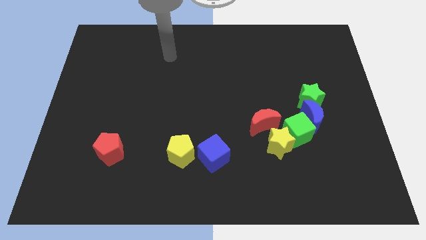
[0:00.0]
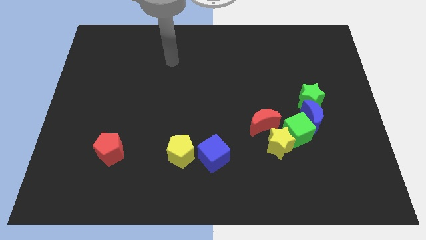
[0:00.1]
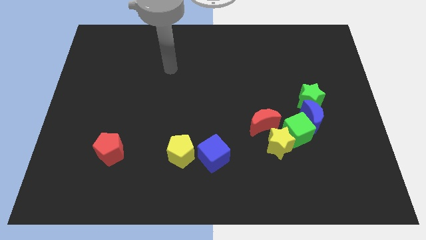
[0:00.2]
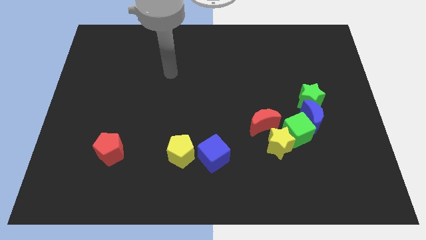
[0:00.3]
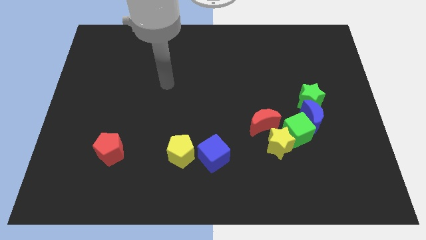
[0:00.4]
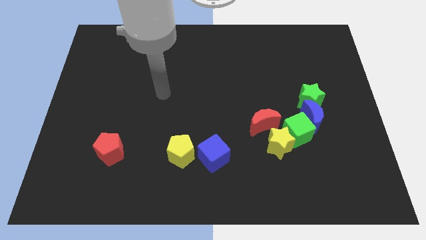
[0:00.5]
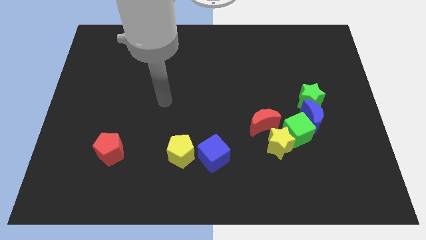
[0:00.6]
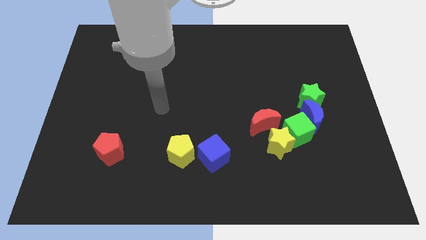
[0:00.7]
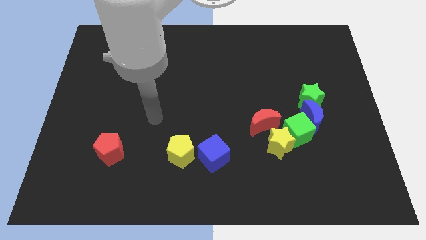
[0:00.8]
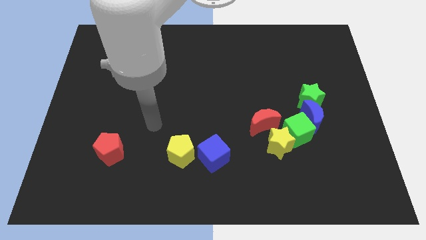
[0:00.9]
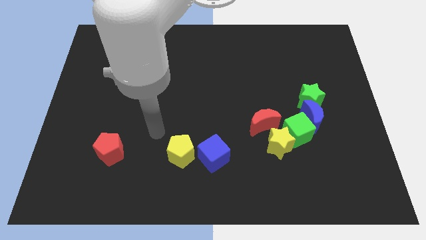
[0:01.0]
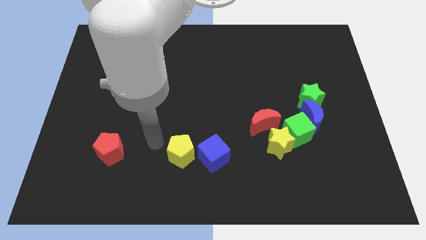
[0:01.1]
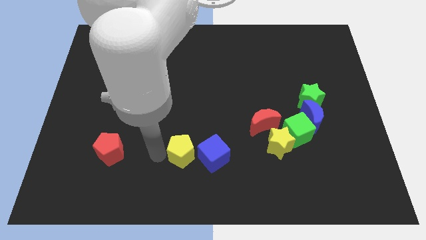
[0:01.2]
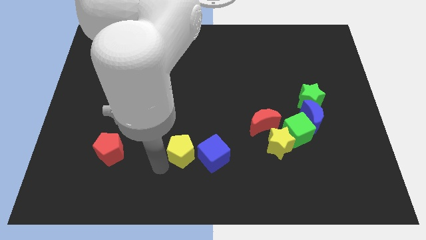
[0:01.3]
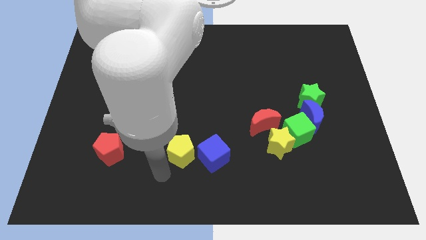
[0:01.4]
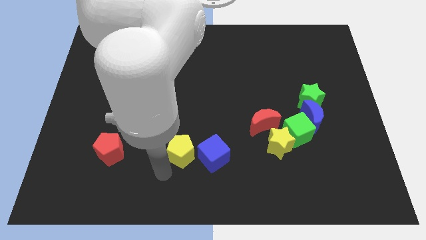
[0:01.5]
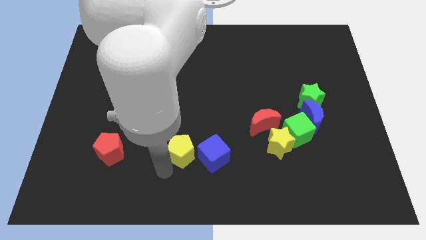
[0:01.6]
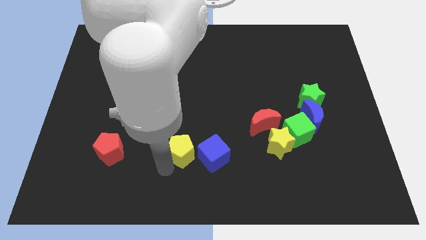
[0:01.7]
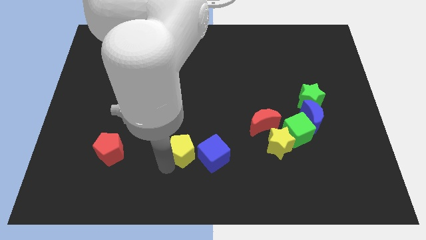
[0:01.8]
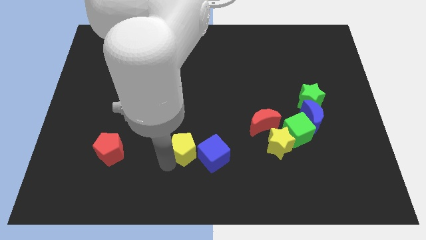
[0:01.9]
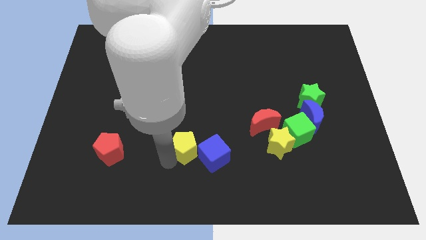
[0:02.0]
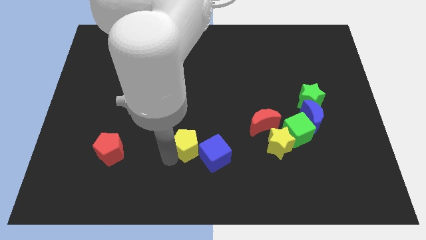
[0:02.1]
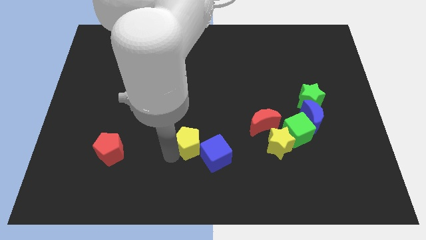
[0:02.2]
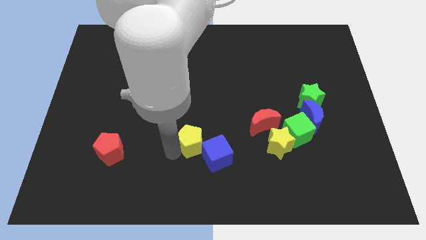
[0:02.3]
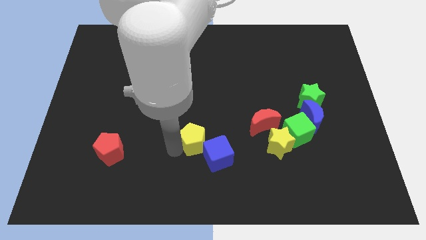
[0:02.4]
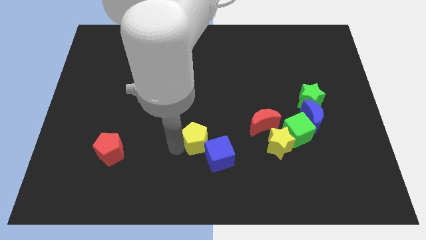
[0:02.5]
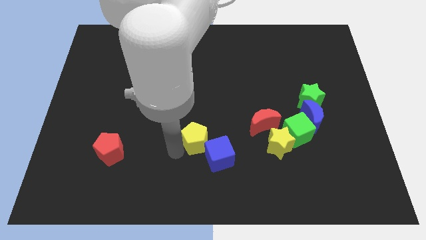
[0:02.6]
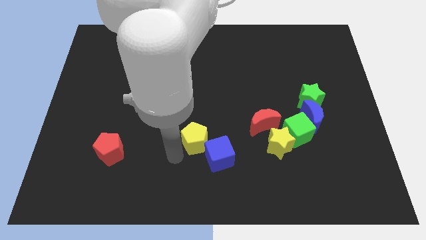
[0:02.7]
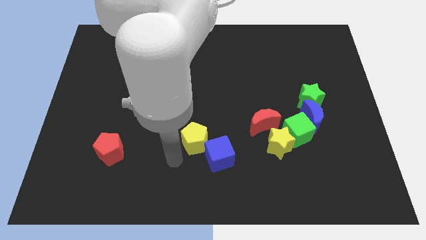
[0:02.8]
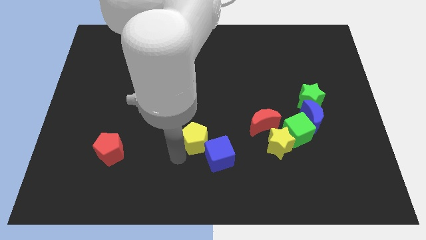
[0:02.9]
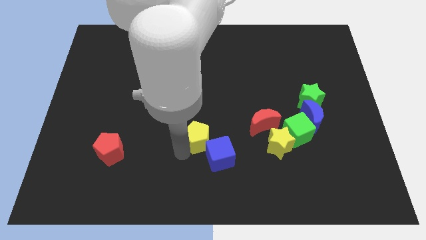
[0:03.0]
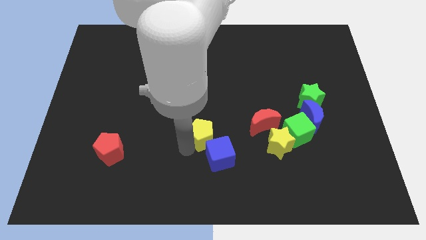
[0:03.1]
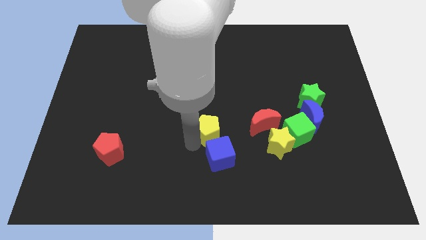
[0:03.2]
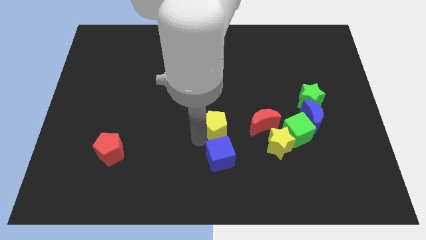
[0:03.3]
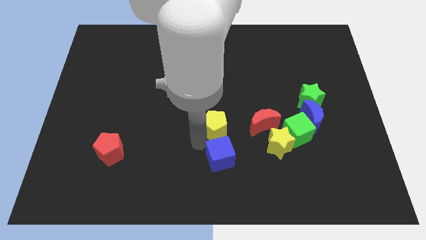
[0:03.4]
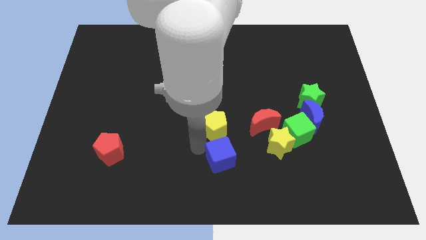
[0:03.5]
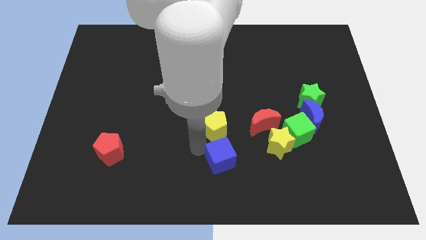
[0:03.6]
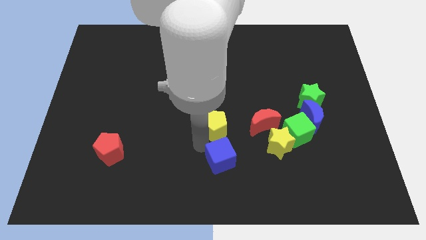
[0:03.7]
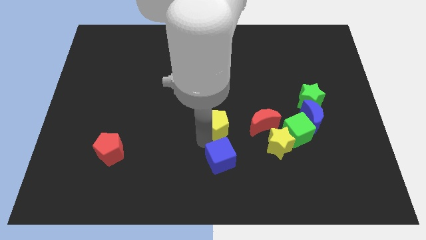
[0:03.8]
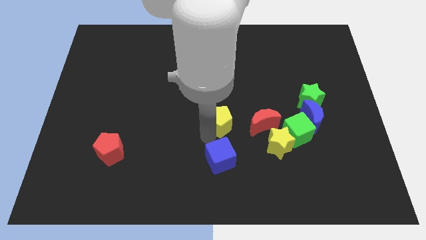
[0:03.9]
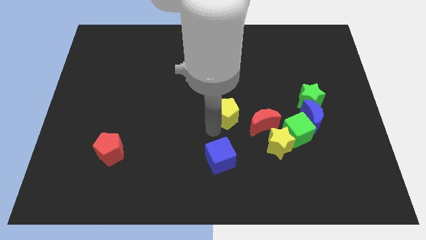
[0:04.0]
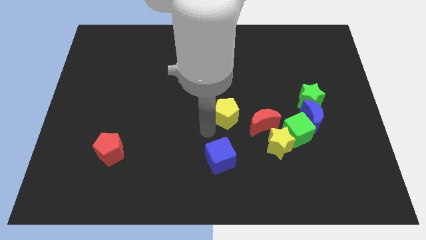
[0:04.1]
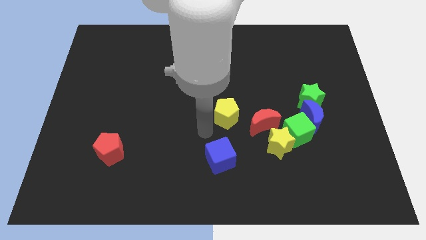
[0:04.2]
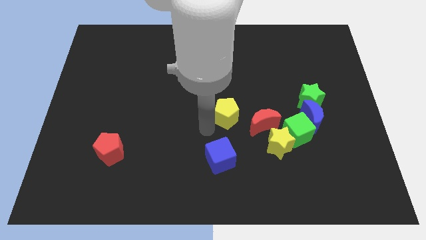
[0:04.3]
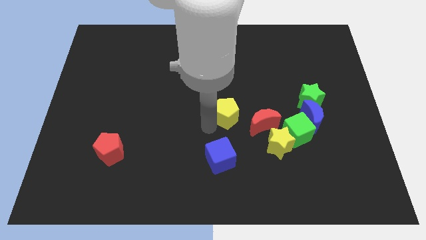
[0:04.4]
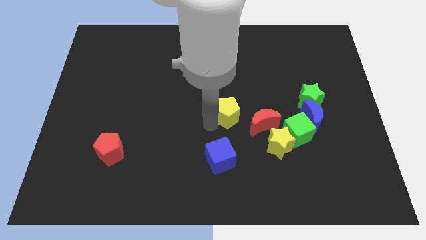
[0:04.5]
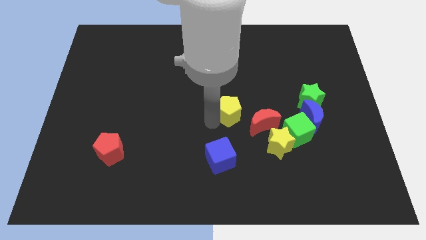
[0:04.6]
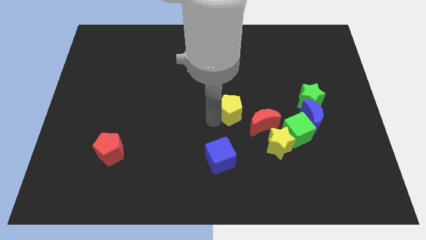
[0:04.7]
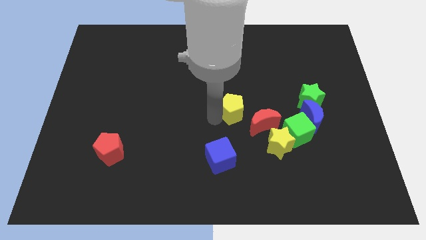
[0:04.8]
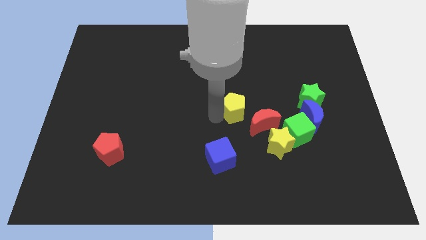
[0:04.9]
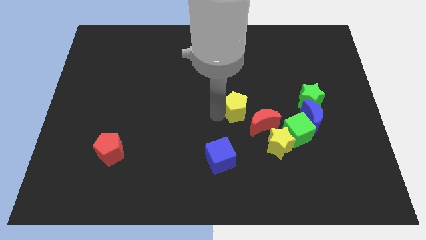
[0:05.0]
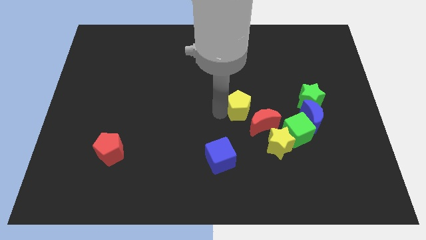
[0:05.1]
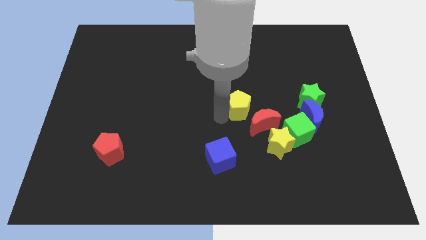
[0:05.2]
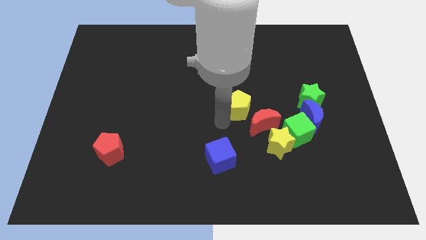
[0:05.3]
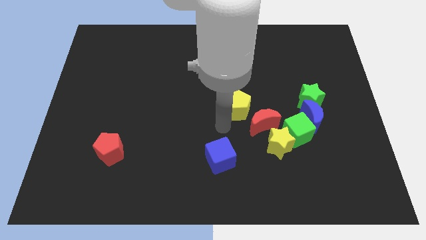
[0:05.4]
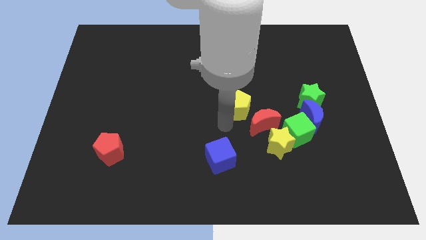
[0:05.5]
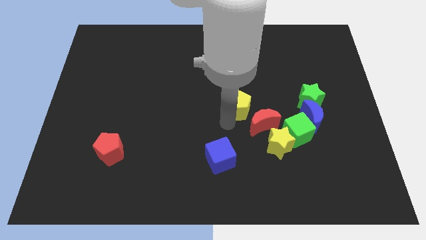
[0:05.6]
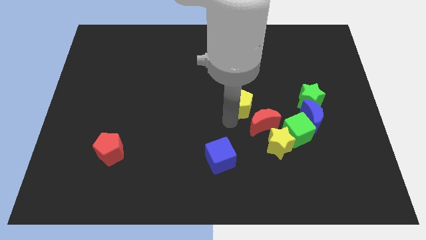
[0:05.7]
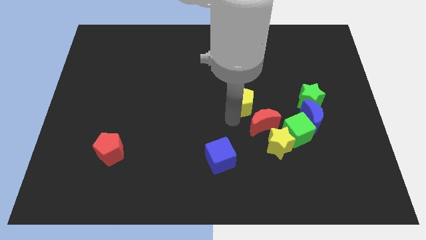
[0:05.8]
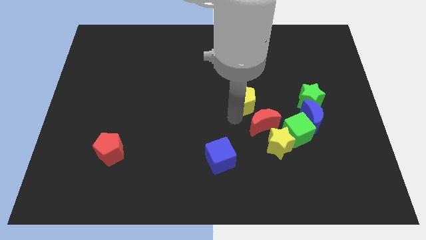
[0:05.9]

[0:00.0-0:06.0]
move the yellow pentagon diagonally upwards and right

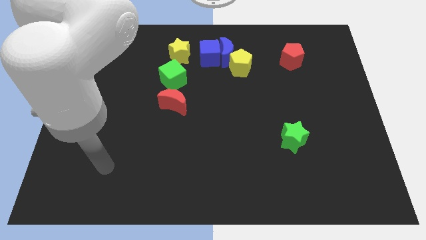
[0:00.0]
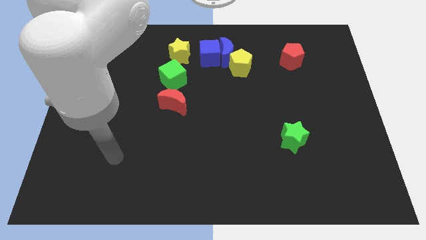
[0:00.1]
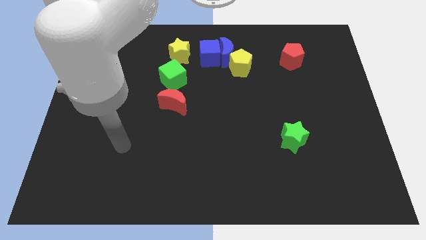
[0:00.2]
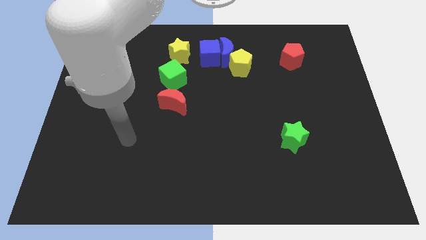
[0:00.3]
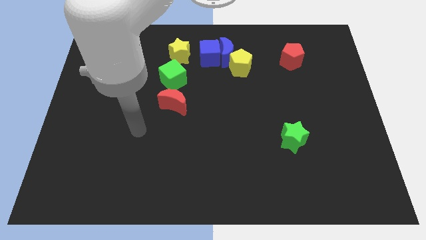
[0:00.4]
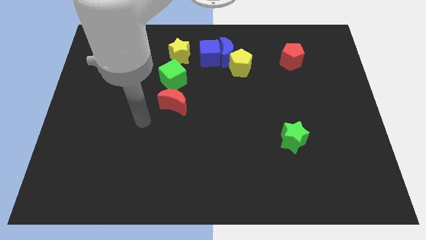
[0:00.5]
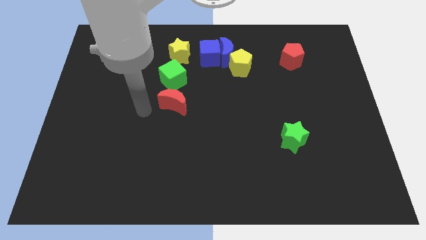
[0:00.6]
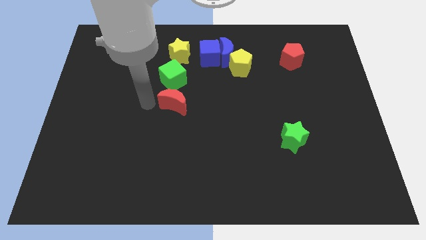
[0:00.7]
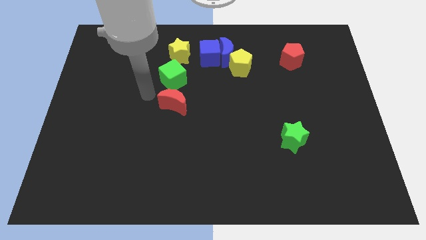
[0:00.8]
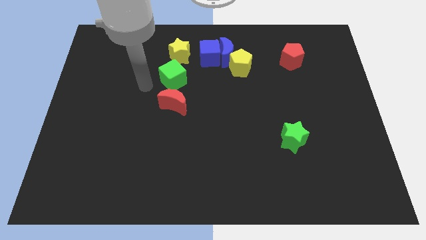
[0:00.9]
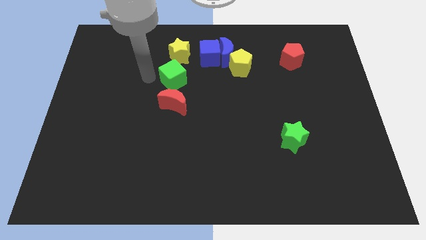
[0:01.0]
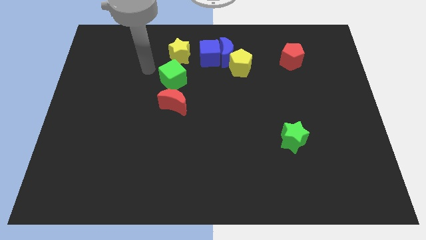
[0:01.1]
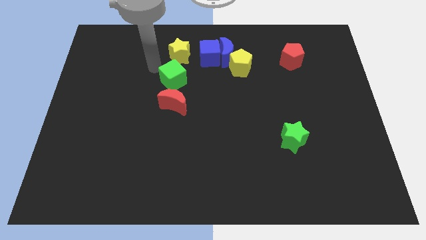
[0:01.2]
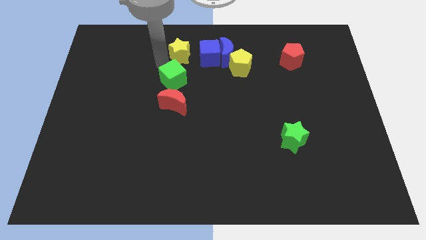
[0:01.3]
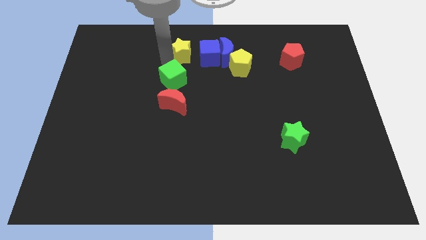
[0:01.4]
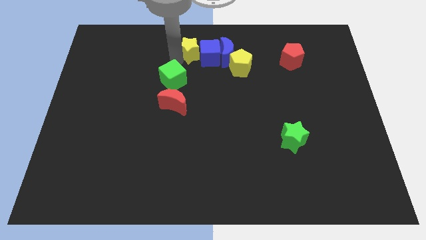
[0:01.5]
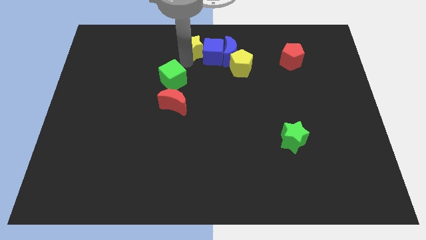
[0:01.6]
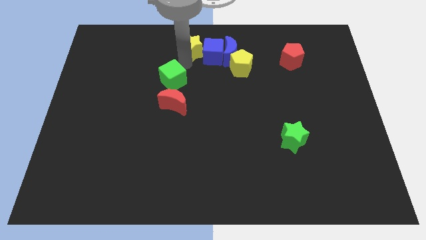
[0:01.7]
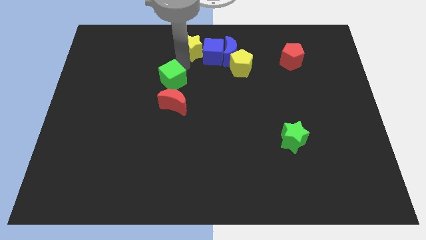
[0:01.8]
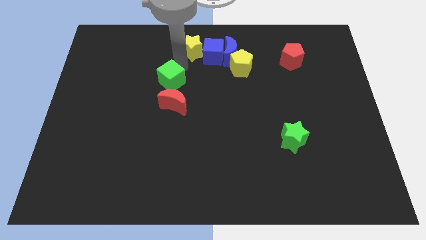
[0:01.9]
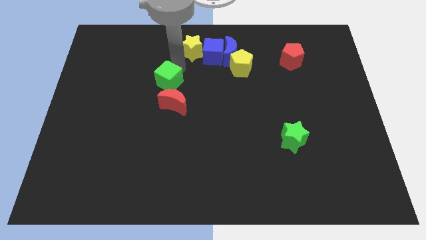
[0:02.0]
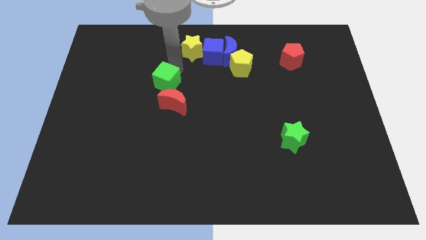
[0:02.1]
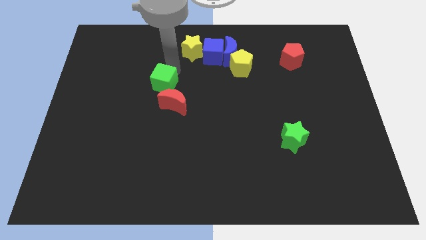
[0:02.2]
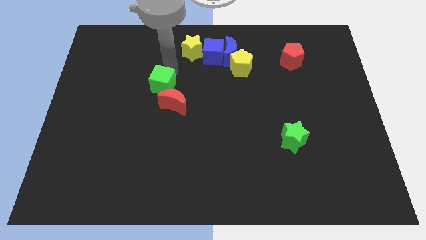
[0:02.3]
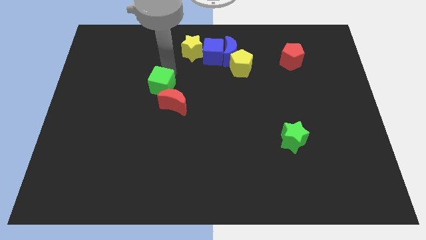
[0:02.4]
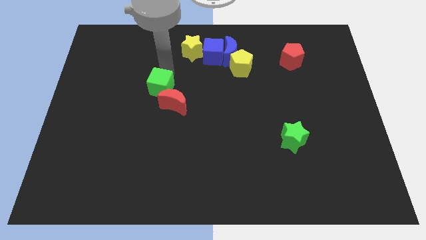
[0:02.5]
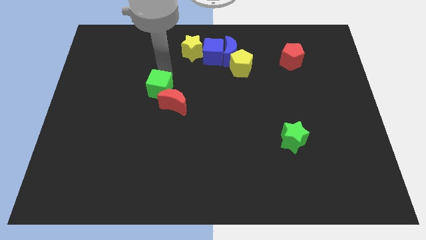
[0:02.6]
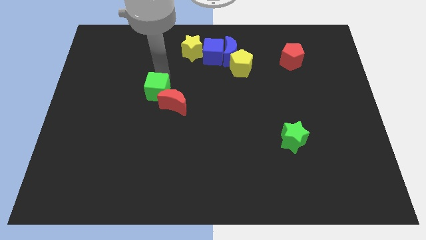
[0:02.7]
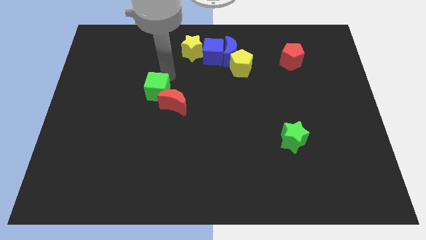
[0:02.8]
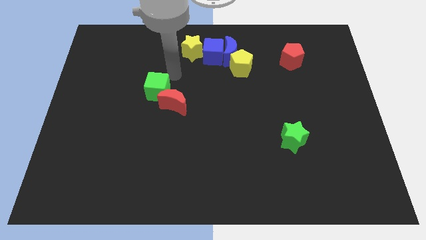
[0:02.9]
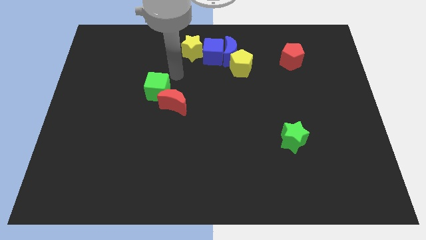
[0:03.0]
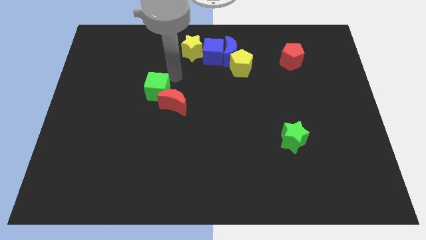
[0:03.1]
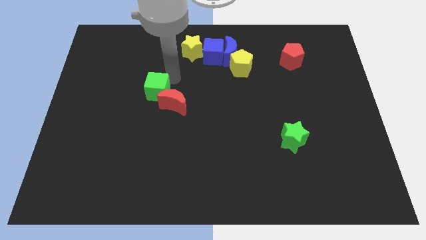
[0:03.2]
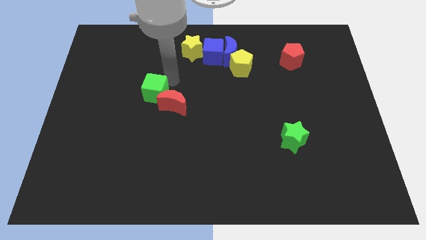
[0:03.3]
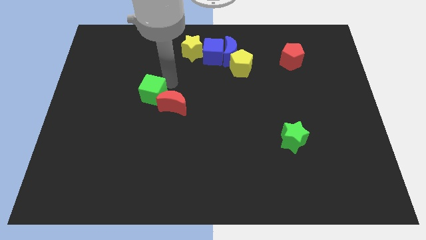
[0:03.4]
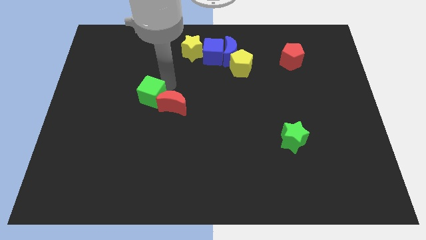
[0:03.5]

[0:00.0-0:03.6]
move the green cube diagonally downwards and left slightly
